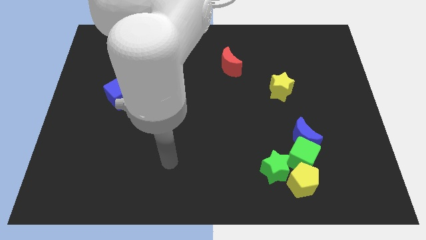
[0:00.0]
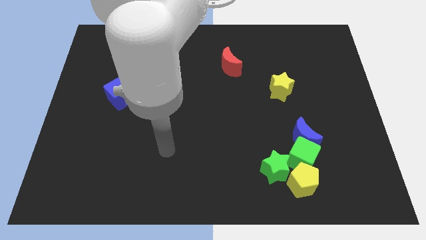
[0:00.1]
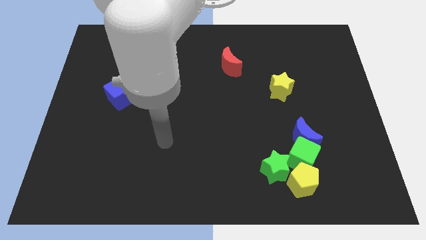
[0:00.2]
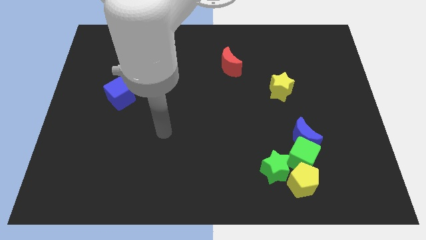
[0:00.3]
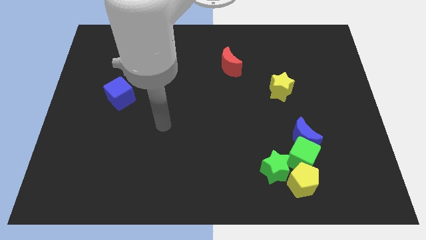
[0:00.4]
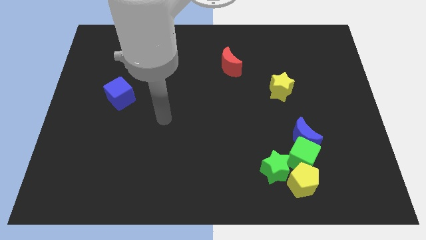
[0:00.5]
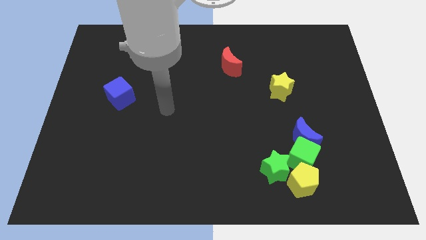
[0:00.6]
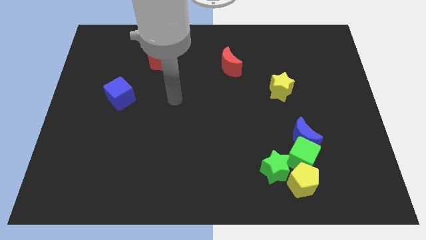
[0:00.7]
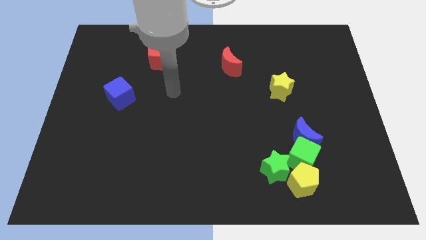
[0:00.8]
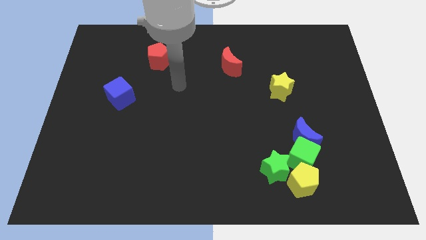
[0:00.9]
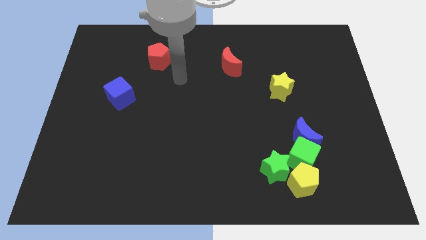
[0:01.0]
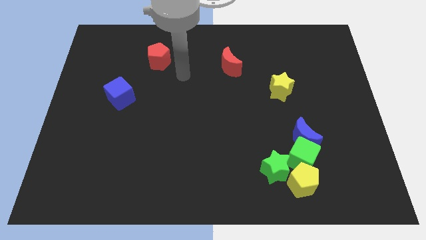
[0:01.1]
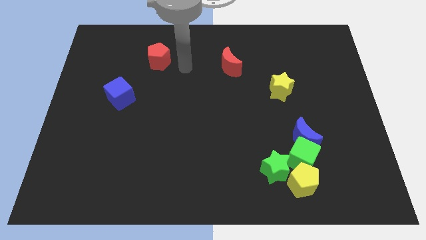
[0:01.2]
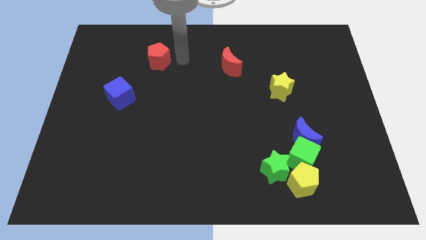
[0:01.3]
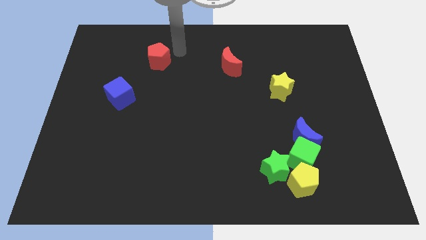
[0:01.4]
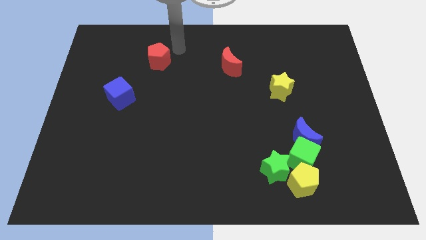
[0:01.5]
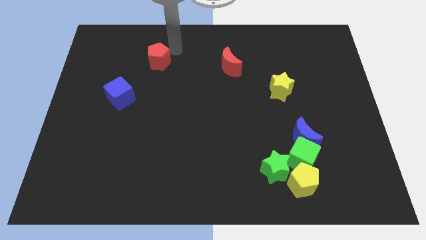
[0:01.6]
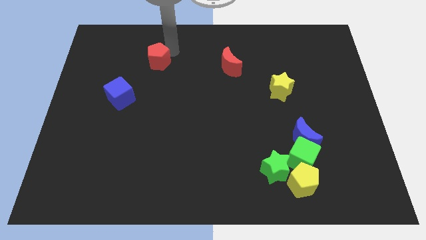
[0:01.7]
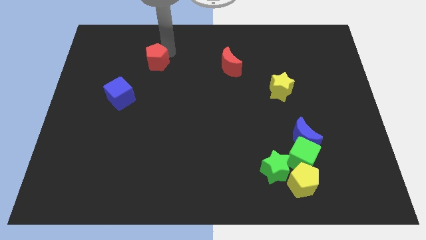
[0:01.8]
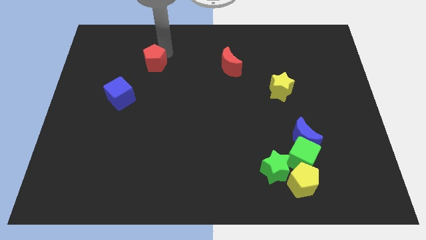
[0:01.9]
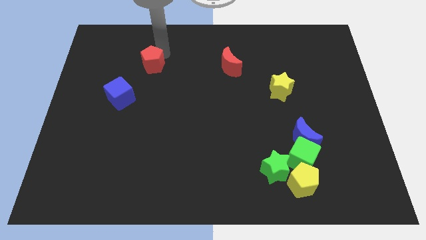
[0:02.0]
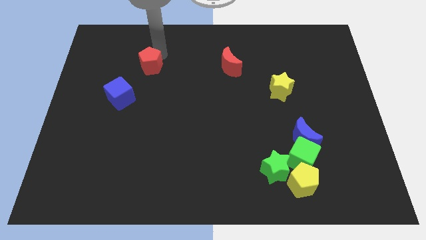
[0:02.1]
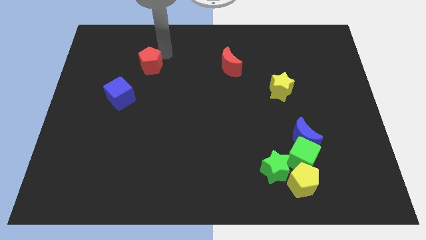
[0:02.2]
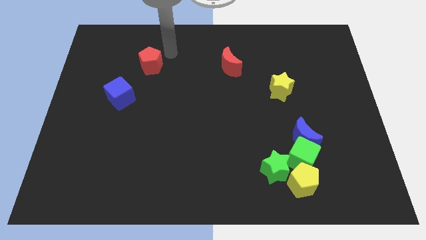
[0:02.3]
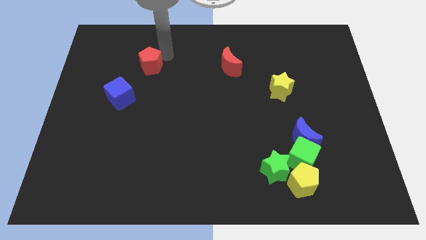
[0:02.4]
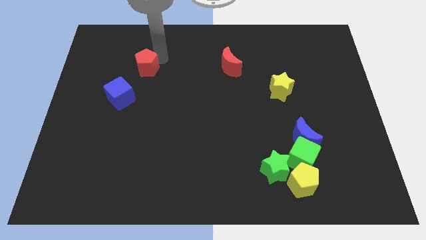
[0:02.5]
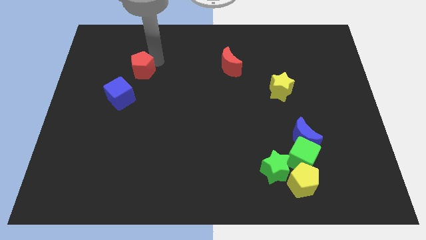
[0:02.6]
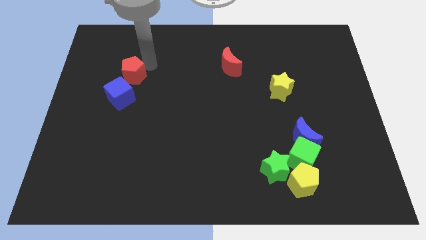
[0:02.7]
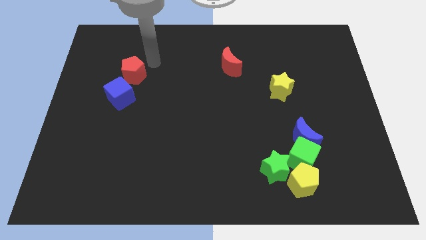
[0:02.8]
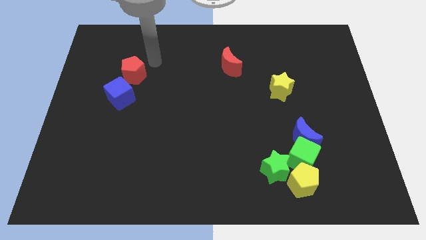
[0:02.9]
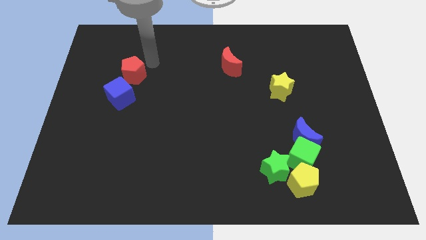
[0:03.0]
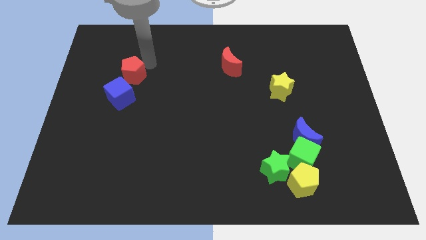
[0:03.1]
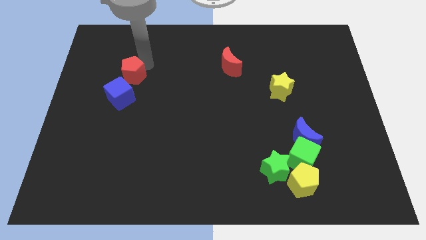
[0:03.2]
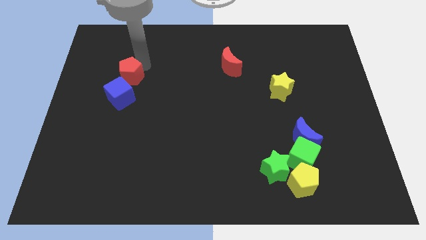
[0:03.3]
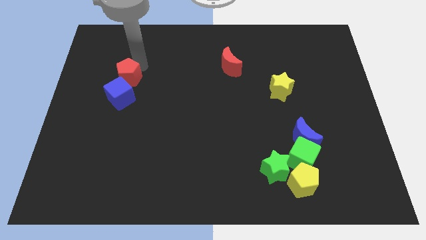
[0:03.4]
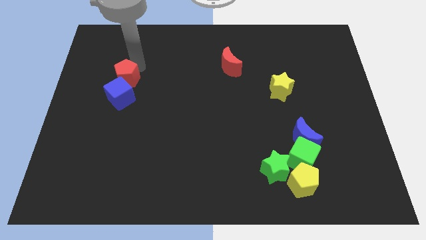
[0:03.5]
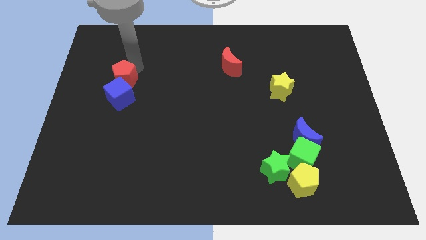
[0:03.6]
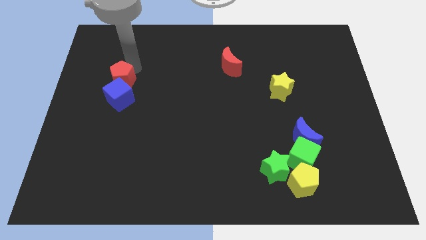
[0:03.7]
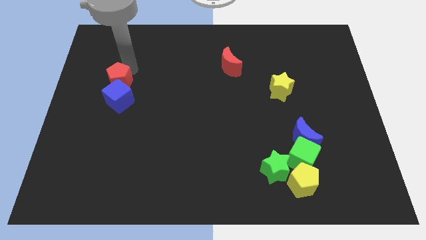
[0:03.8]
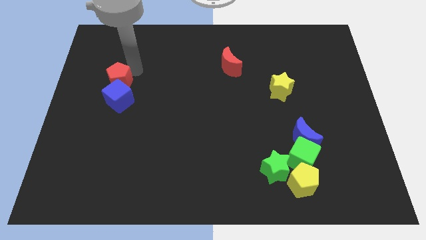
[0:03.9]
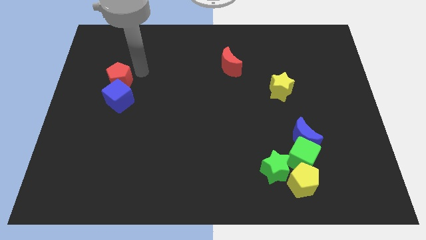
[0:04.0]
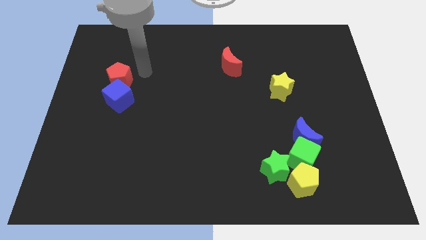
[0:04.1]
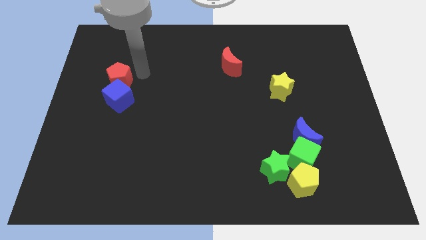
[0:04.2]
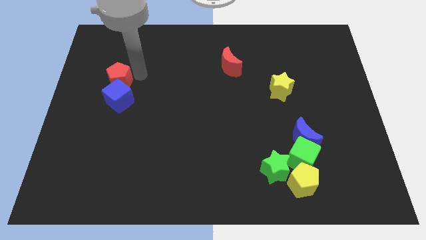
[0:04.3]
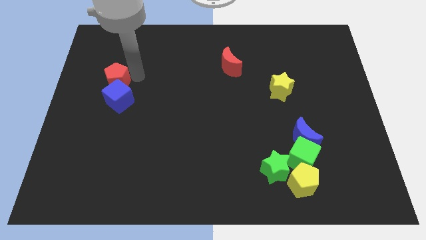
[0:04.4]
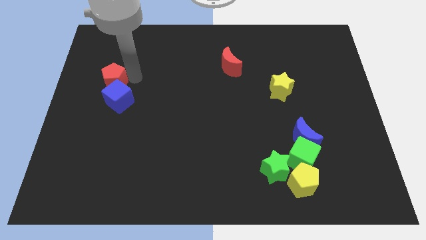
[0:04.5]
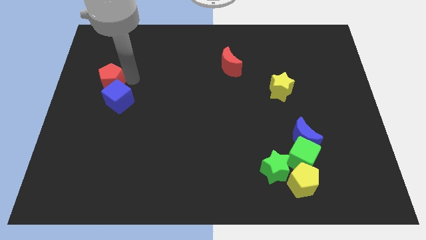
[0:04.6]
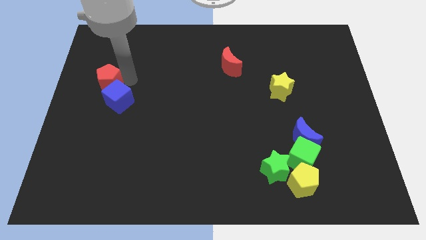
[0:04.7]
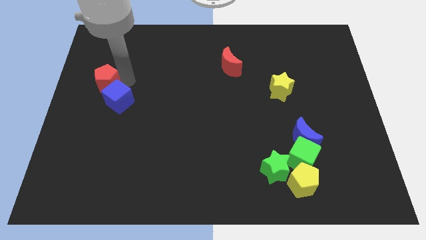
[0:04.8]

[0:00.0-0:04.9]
put the red pentagon to the left side

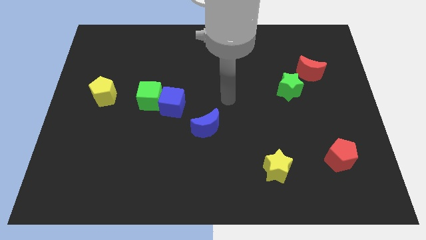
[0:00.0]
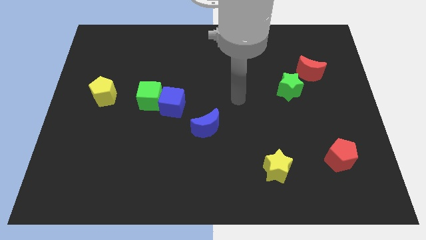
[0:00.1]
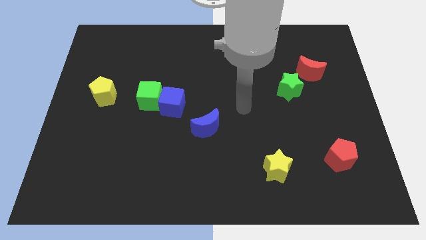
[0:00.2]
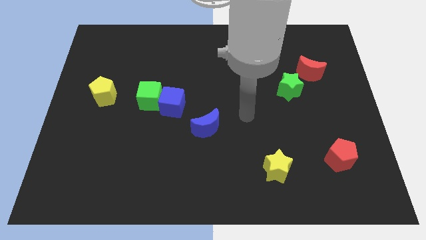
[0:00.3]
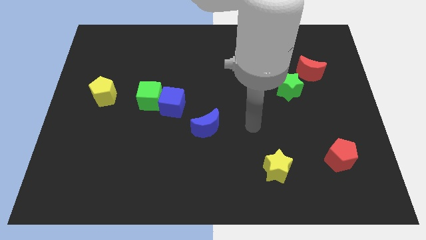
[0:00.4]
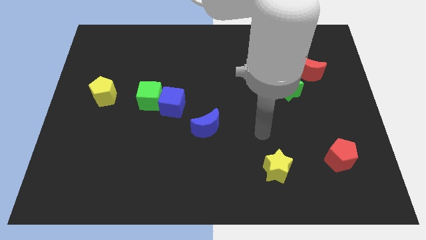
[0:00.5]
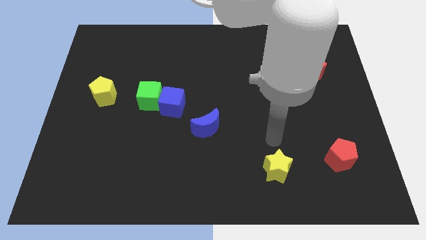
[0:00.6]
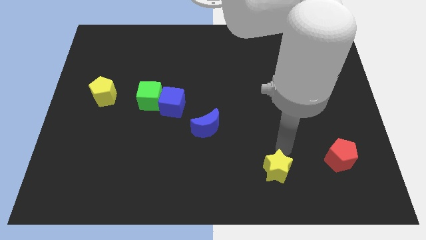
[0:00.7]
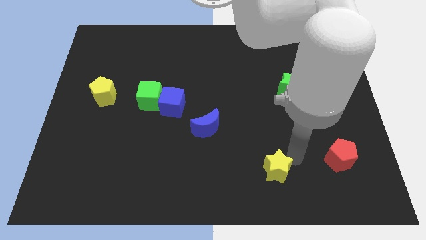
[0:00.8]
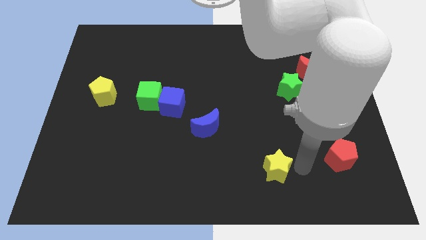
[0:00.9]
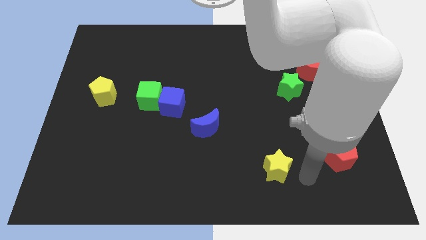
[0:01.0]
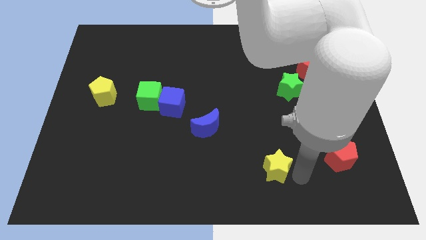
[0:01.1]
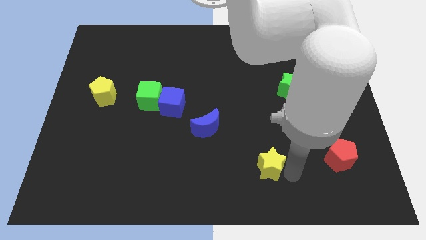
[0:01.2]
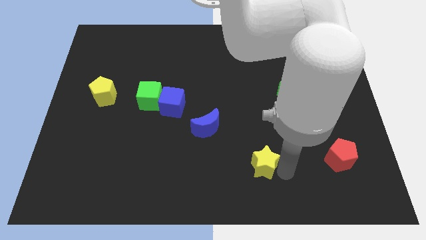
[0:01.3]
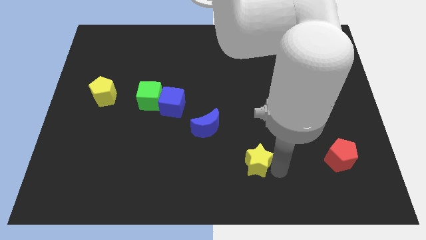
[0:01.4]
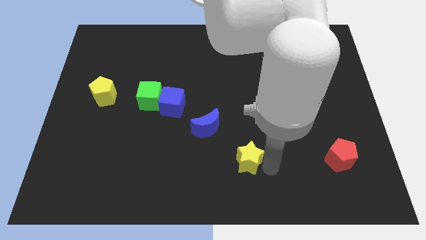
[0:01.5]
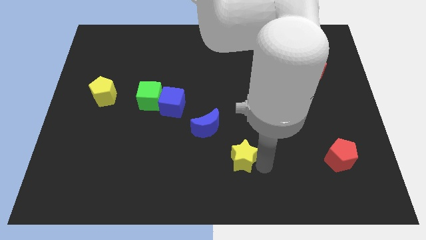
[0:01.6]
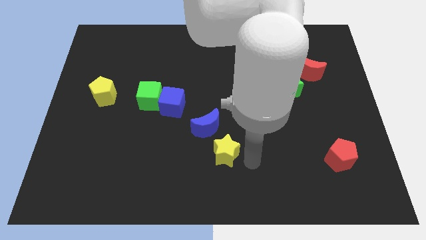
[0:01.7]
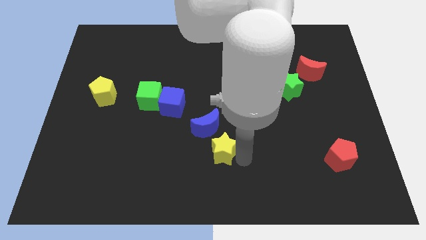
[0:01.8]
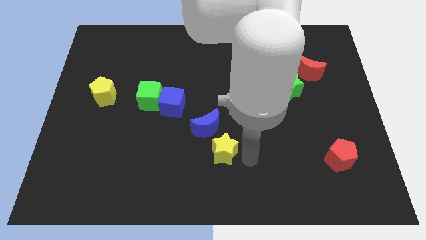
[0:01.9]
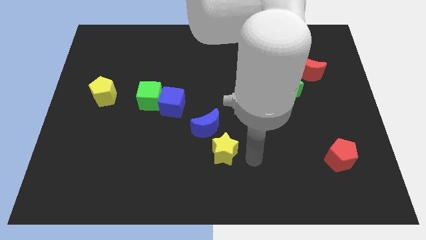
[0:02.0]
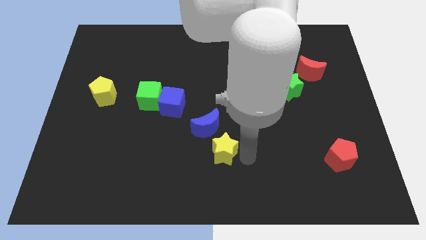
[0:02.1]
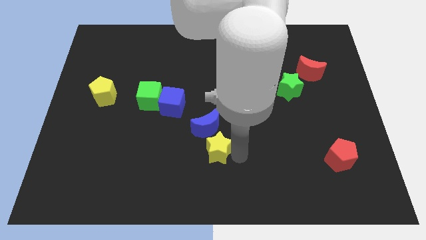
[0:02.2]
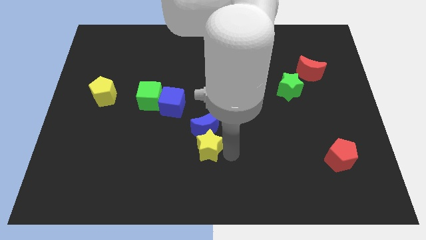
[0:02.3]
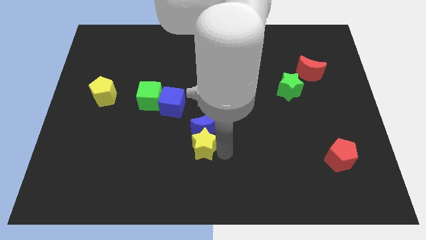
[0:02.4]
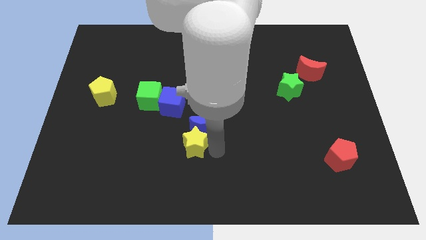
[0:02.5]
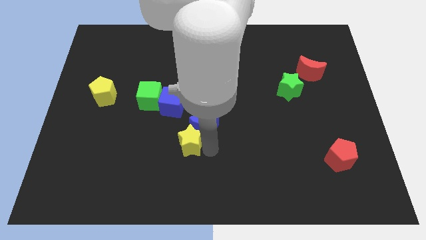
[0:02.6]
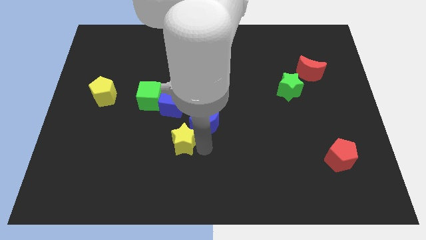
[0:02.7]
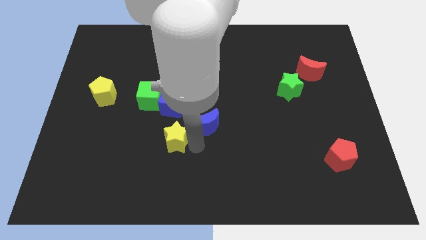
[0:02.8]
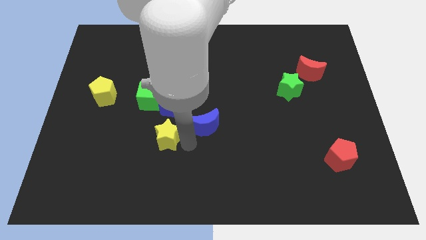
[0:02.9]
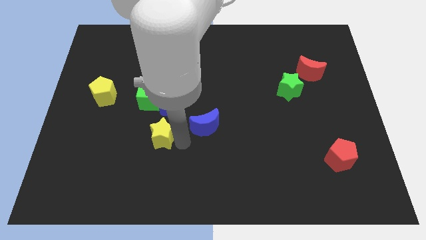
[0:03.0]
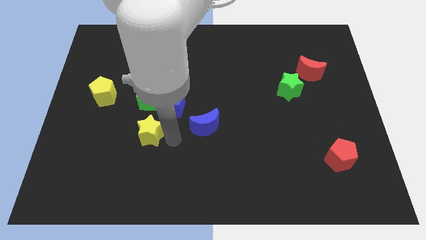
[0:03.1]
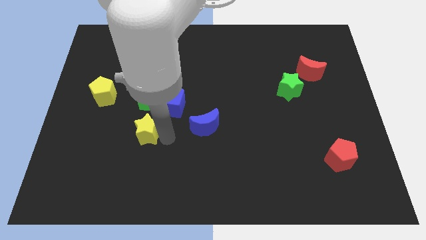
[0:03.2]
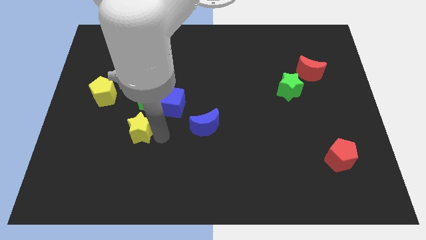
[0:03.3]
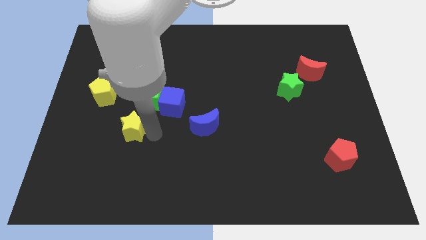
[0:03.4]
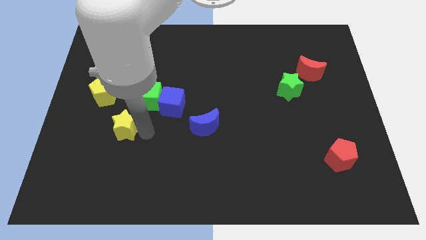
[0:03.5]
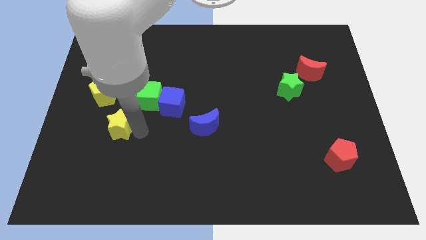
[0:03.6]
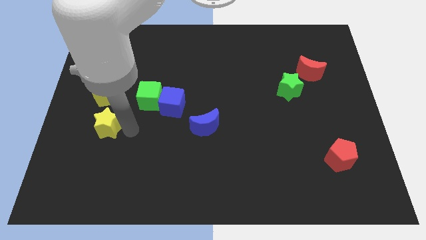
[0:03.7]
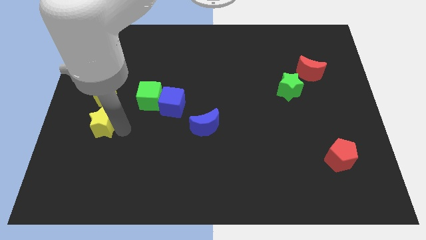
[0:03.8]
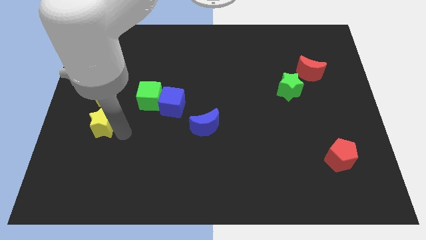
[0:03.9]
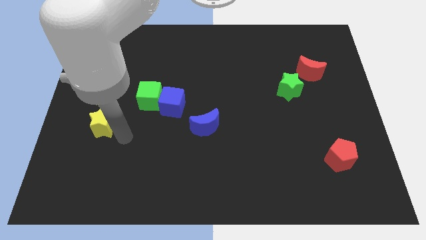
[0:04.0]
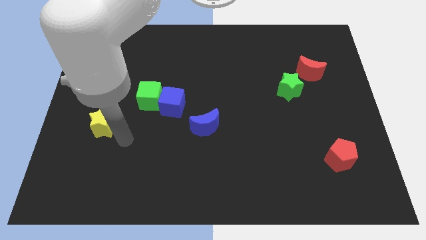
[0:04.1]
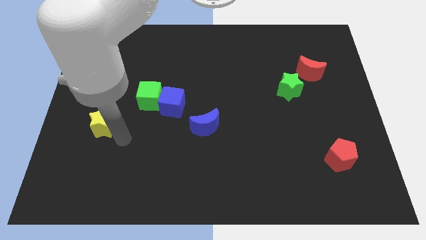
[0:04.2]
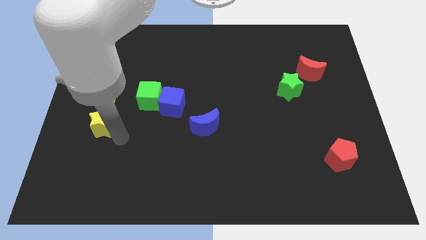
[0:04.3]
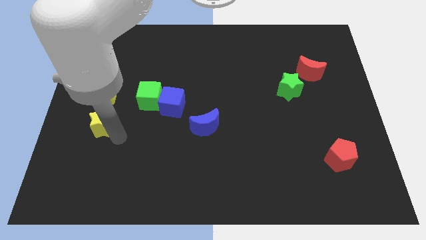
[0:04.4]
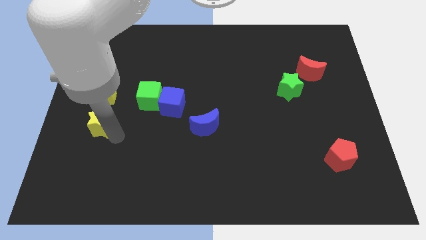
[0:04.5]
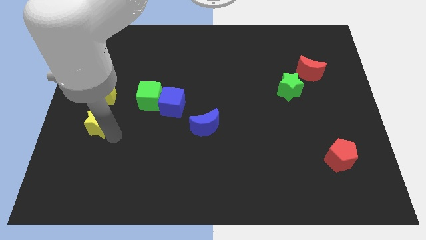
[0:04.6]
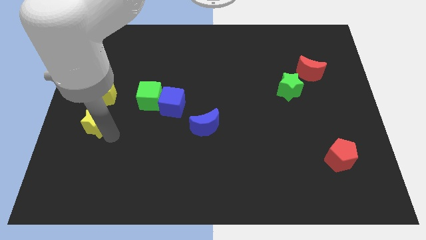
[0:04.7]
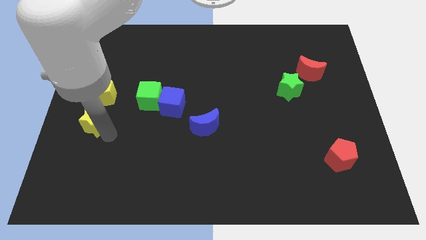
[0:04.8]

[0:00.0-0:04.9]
slide the yellow star to the left side of the board
